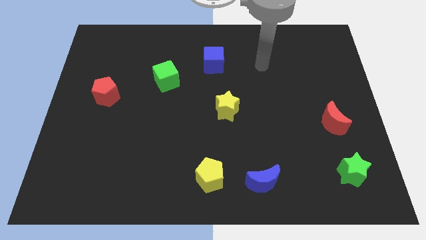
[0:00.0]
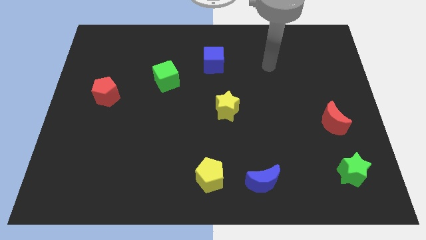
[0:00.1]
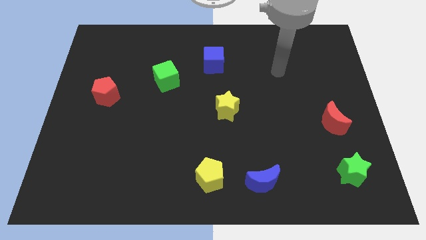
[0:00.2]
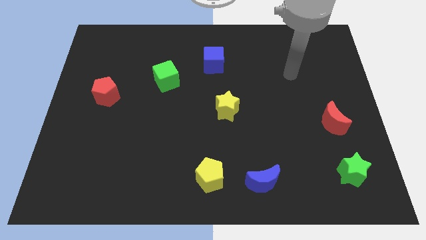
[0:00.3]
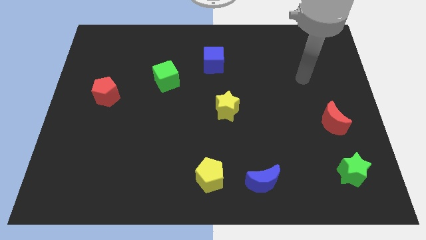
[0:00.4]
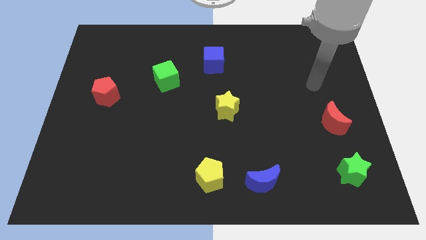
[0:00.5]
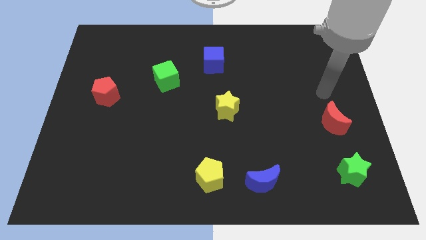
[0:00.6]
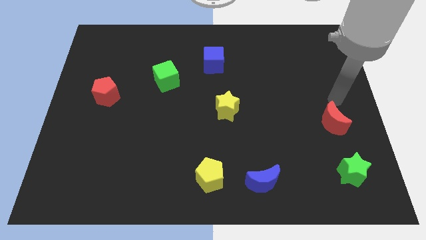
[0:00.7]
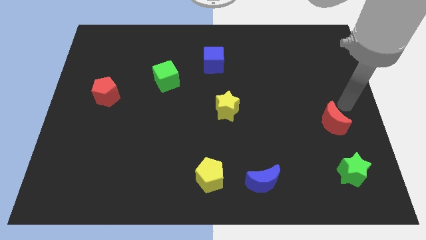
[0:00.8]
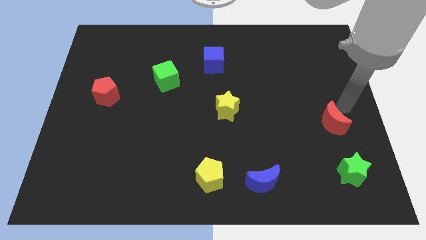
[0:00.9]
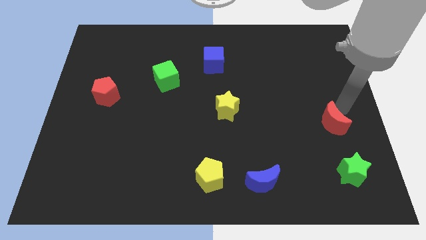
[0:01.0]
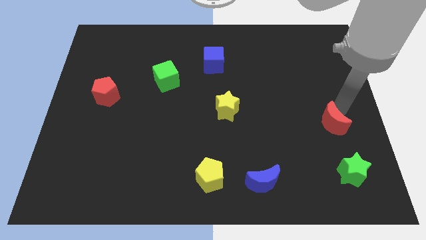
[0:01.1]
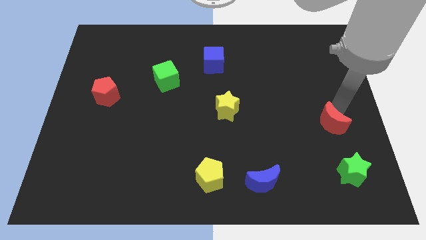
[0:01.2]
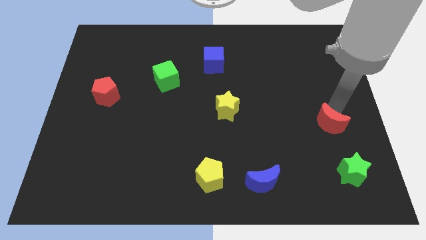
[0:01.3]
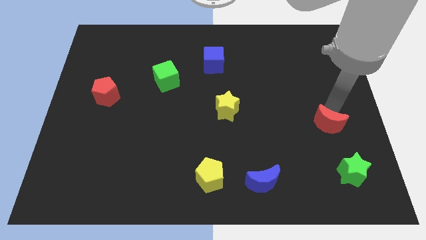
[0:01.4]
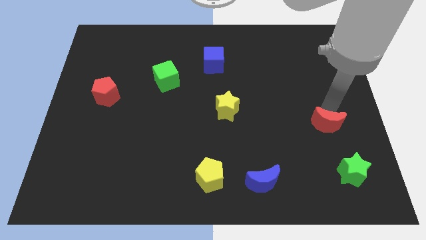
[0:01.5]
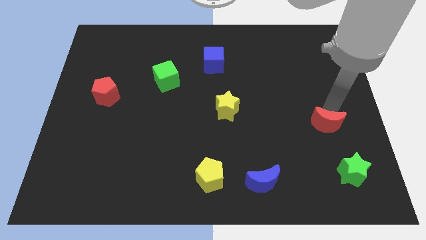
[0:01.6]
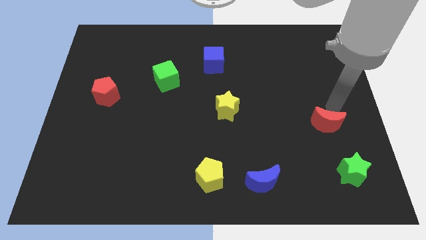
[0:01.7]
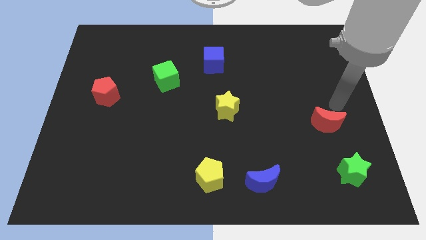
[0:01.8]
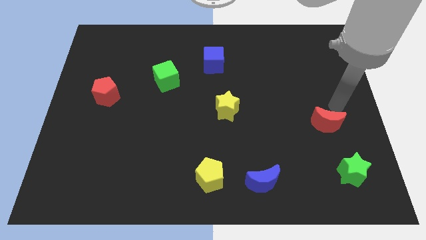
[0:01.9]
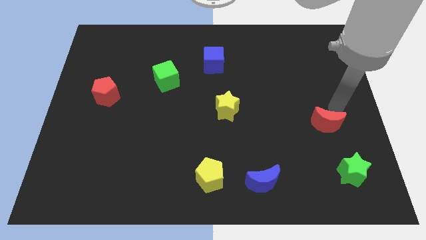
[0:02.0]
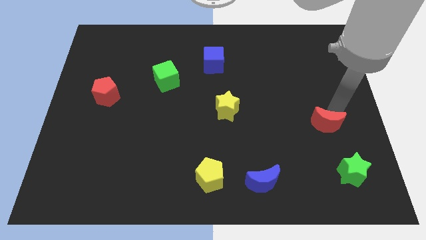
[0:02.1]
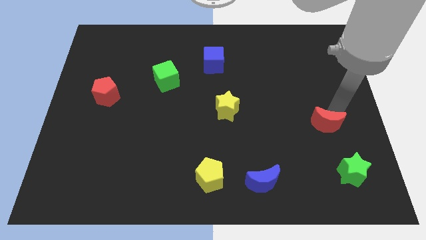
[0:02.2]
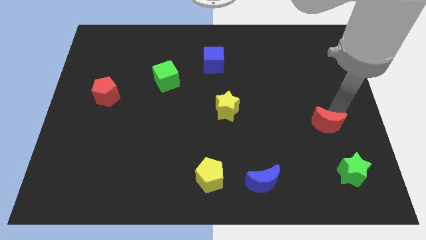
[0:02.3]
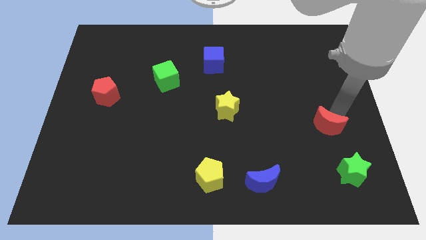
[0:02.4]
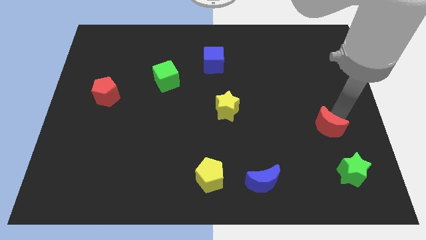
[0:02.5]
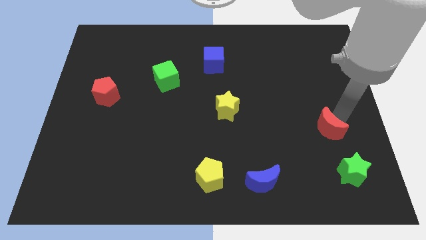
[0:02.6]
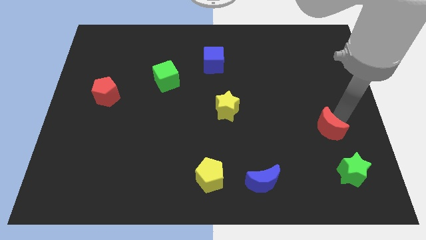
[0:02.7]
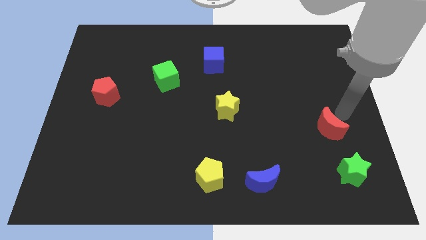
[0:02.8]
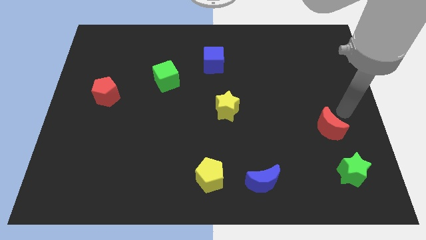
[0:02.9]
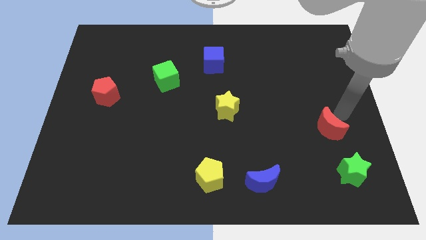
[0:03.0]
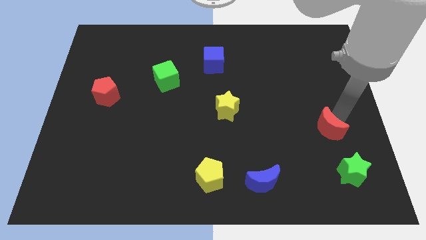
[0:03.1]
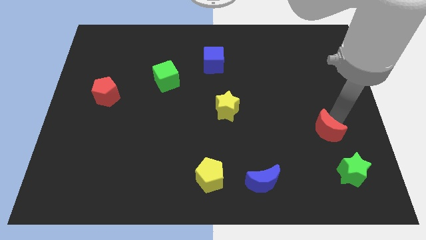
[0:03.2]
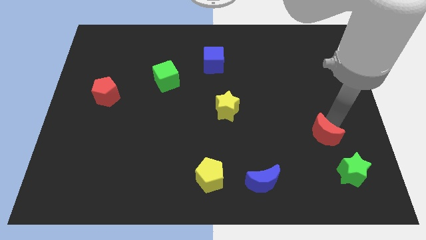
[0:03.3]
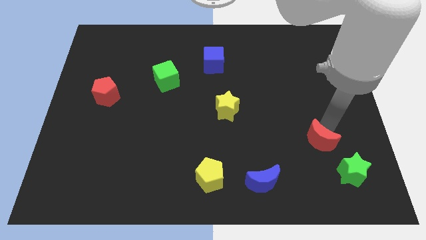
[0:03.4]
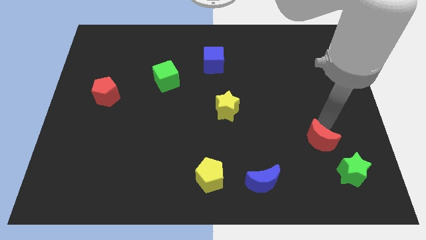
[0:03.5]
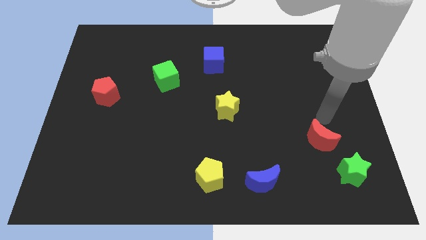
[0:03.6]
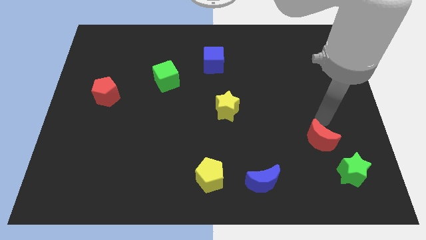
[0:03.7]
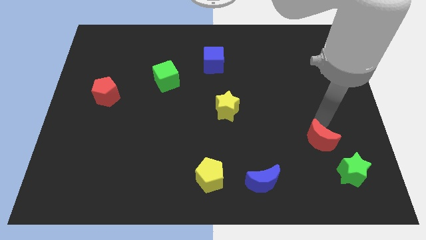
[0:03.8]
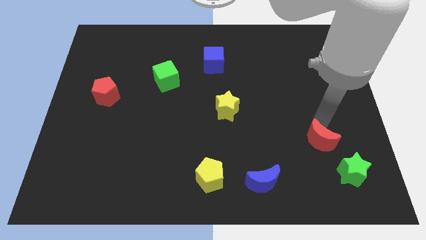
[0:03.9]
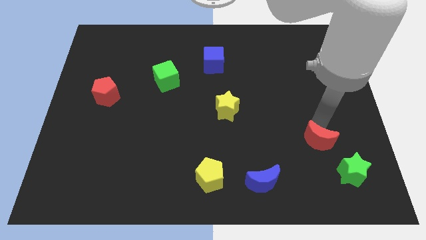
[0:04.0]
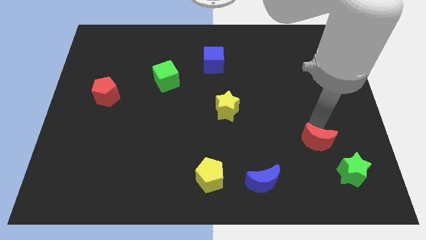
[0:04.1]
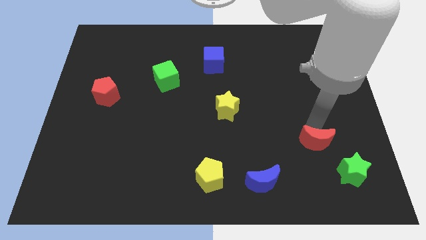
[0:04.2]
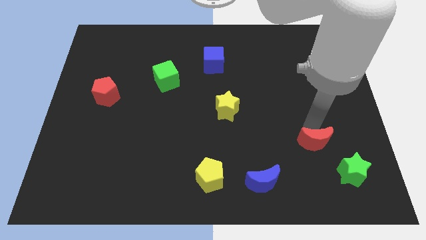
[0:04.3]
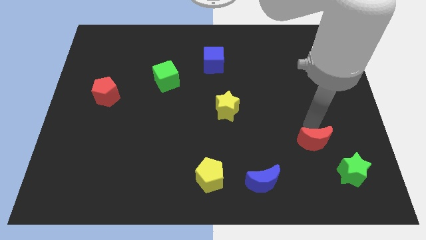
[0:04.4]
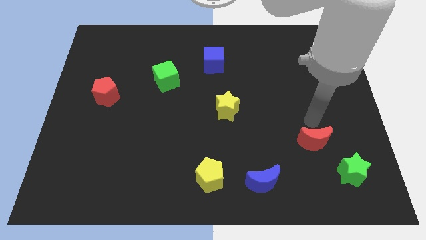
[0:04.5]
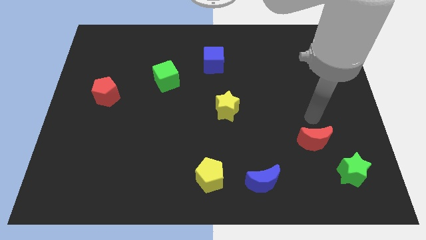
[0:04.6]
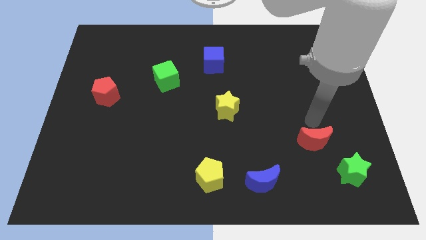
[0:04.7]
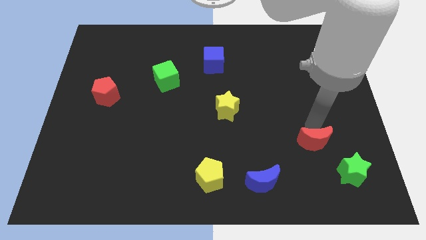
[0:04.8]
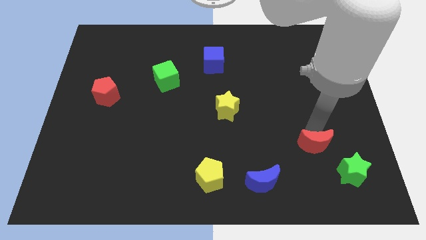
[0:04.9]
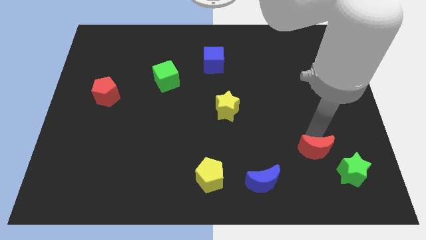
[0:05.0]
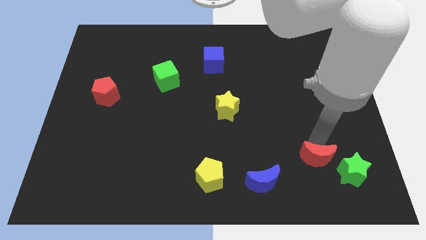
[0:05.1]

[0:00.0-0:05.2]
move the red moon left of the green star

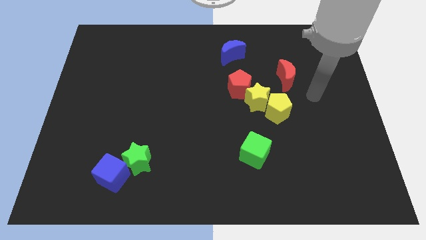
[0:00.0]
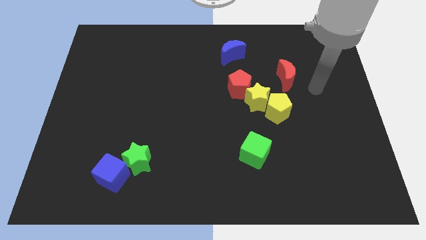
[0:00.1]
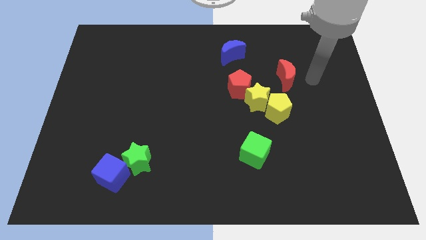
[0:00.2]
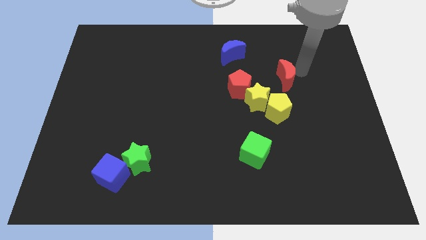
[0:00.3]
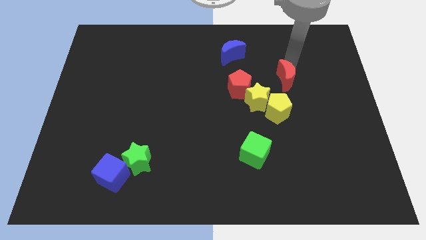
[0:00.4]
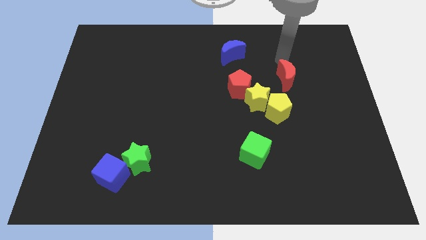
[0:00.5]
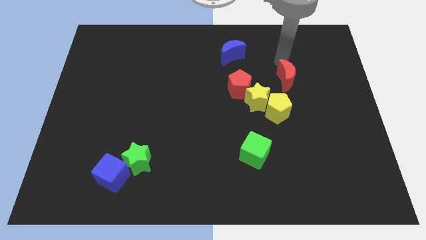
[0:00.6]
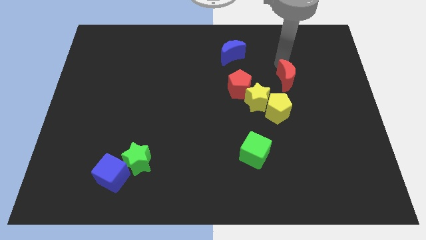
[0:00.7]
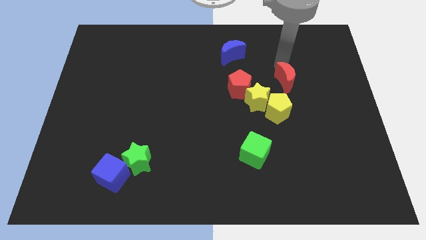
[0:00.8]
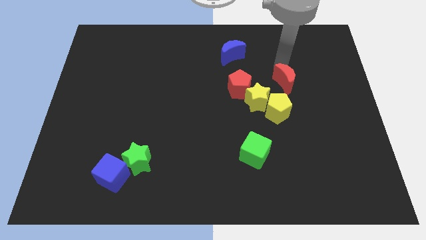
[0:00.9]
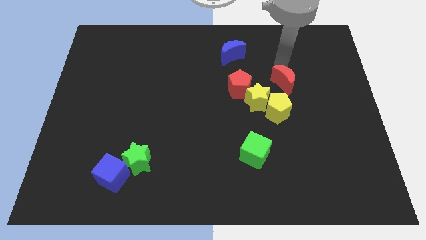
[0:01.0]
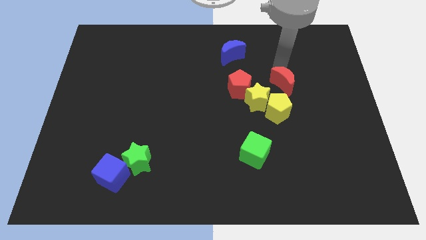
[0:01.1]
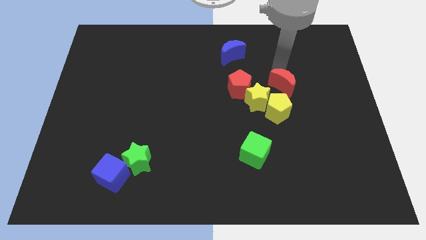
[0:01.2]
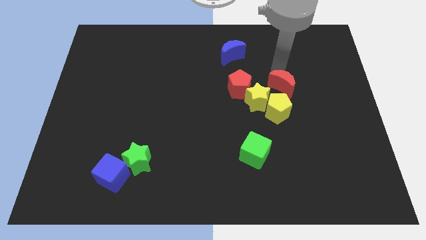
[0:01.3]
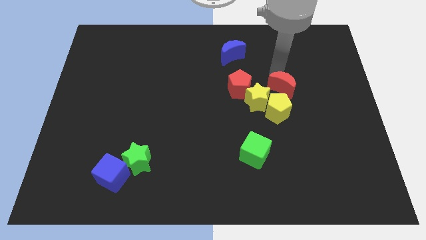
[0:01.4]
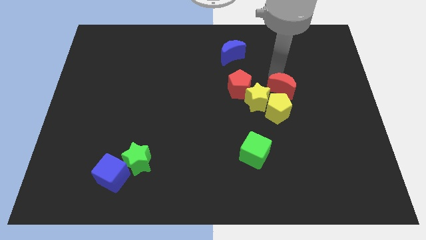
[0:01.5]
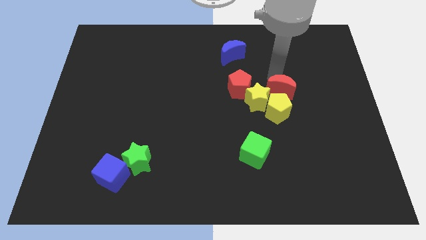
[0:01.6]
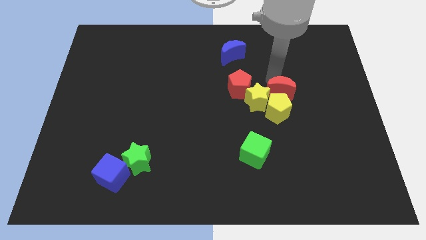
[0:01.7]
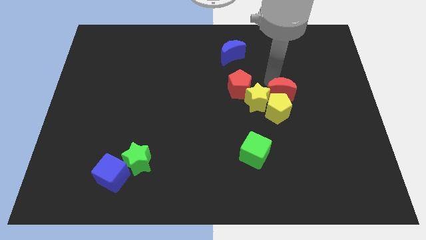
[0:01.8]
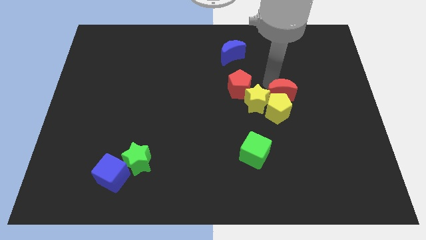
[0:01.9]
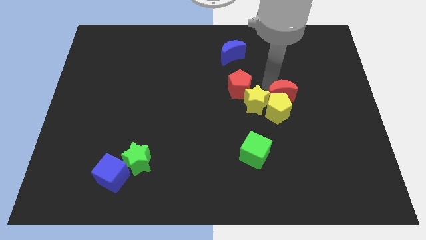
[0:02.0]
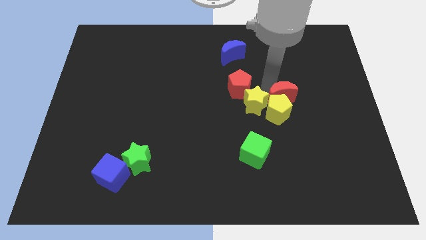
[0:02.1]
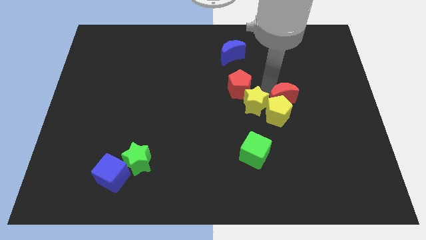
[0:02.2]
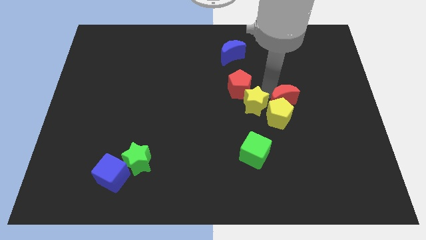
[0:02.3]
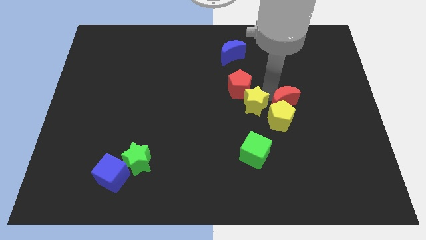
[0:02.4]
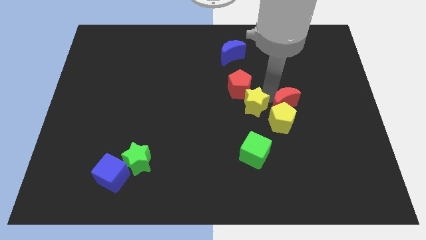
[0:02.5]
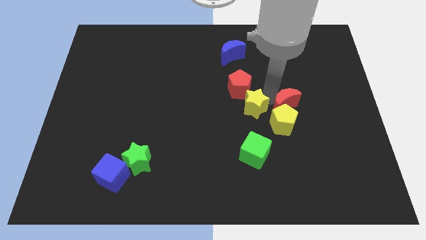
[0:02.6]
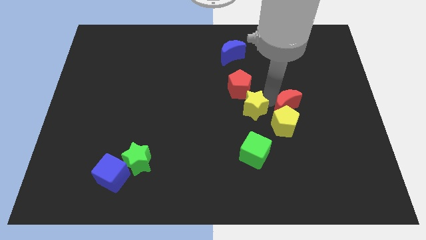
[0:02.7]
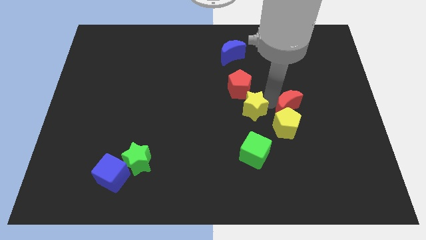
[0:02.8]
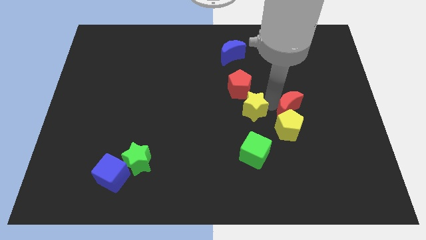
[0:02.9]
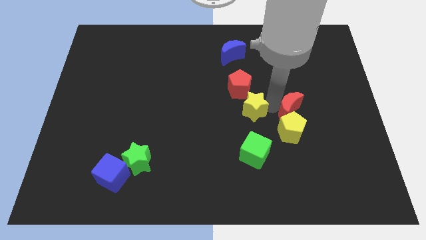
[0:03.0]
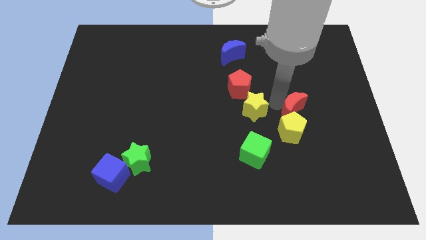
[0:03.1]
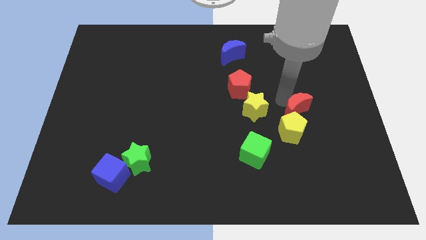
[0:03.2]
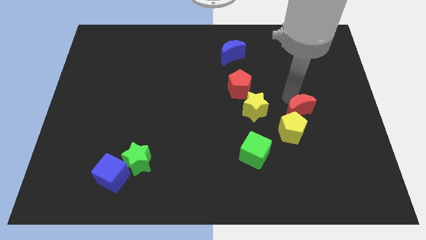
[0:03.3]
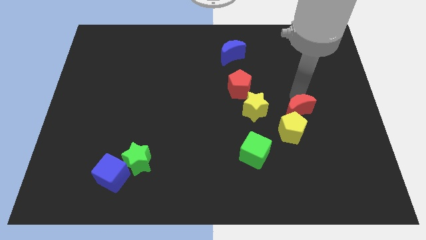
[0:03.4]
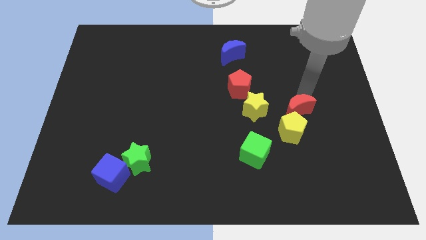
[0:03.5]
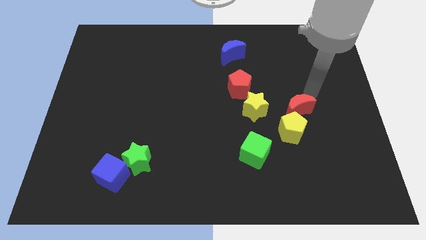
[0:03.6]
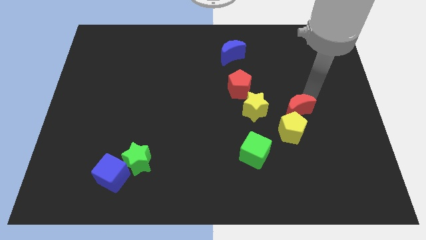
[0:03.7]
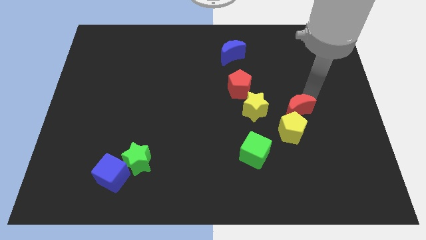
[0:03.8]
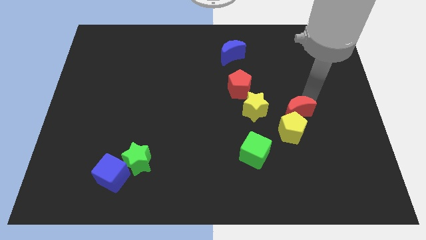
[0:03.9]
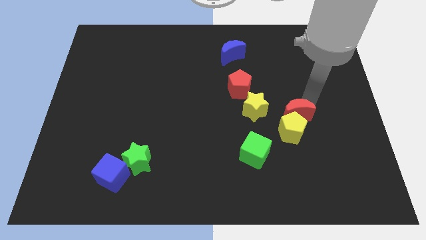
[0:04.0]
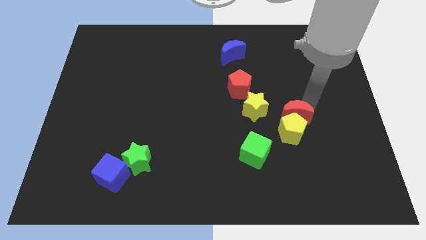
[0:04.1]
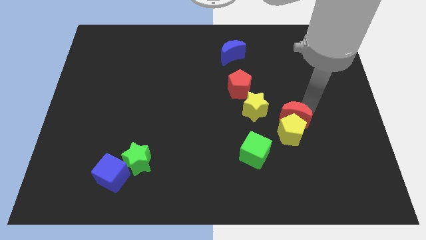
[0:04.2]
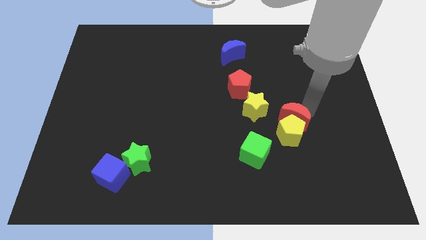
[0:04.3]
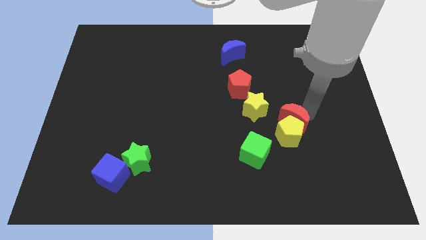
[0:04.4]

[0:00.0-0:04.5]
move the red moon to the top right of the green cube
